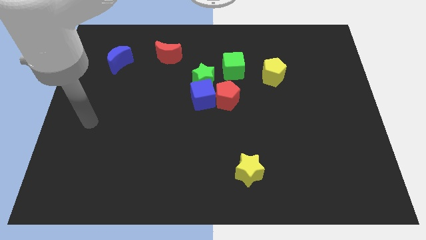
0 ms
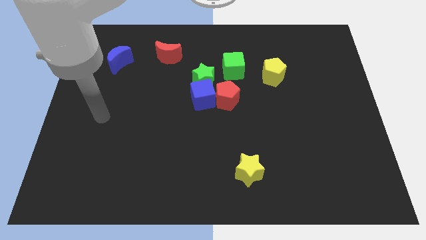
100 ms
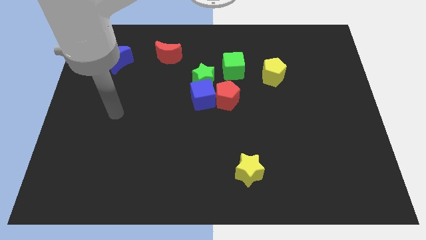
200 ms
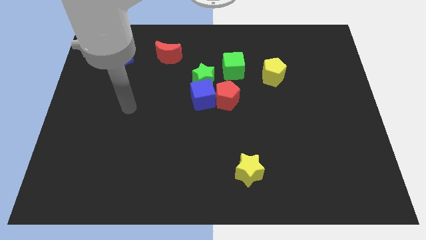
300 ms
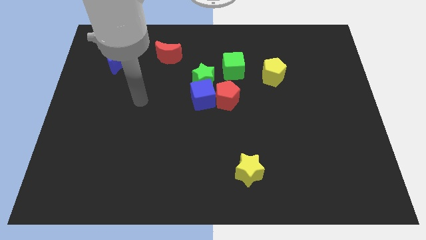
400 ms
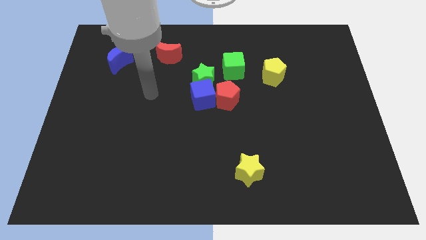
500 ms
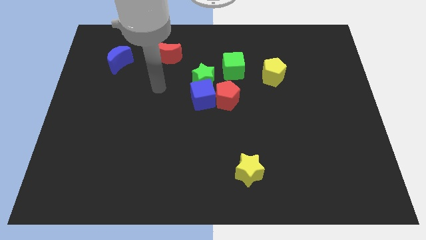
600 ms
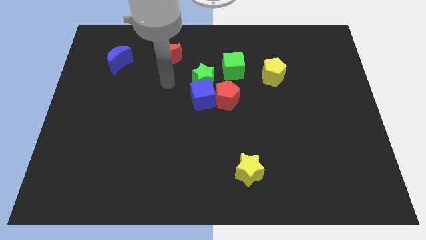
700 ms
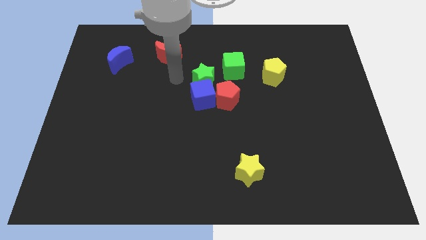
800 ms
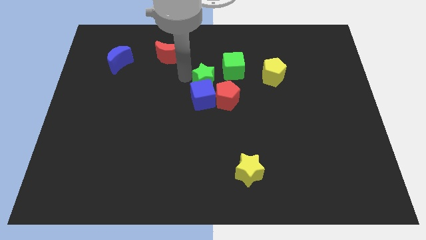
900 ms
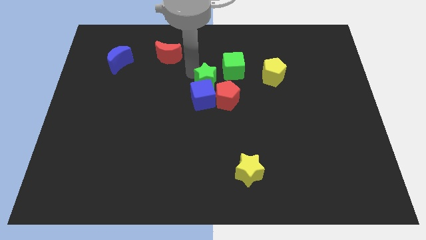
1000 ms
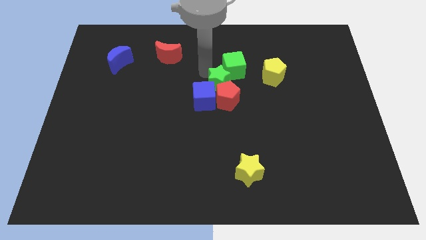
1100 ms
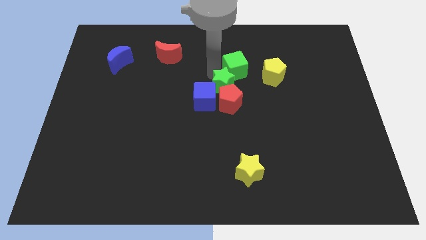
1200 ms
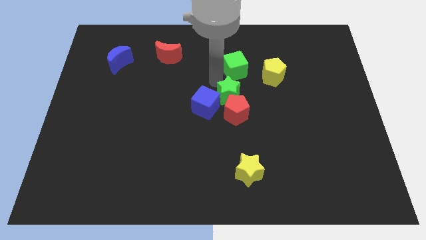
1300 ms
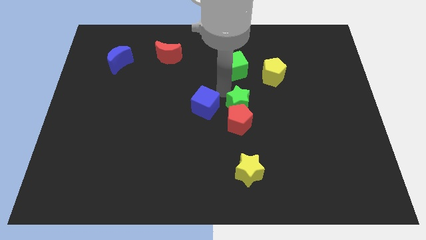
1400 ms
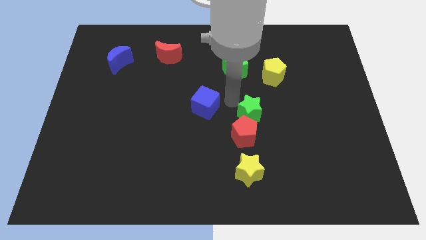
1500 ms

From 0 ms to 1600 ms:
move the blue cube away from the green star and red pentagon

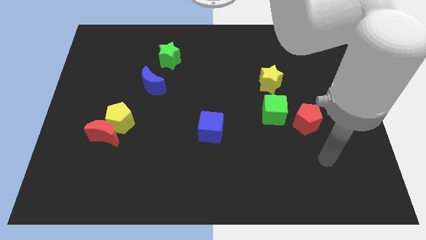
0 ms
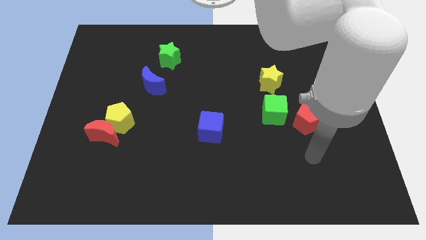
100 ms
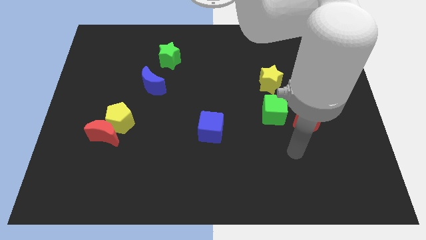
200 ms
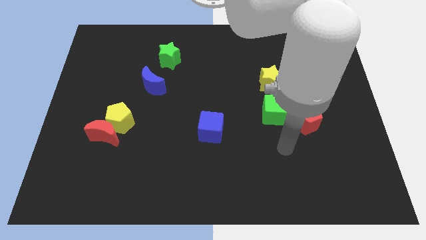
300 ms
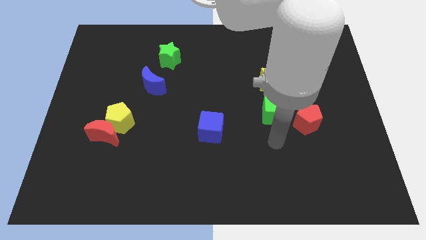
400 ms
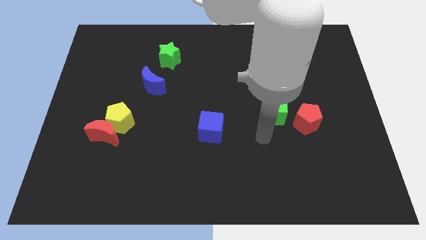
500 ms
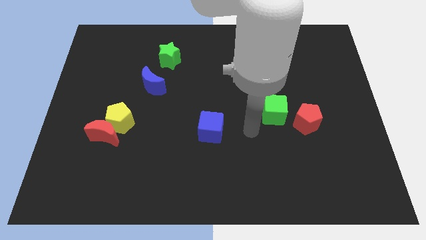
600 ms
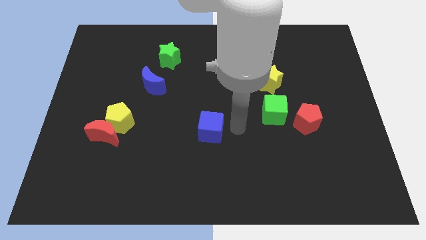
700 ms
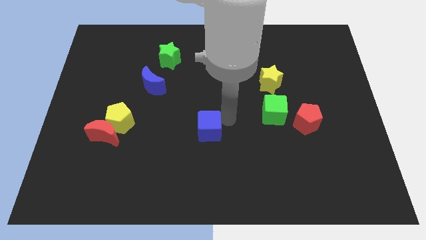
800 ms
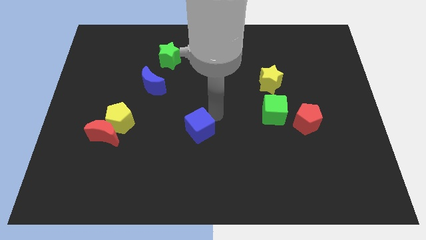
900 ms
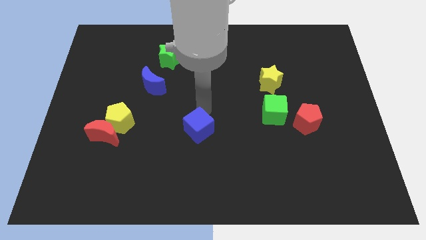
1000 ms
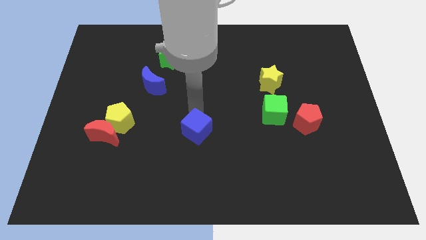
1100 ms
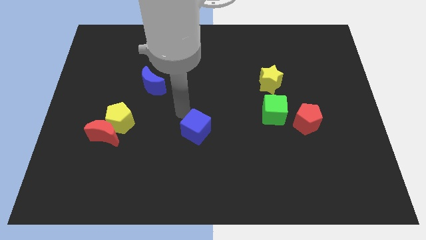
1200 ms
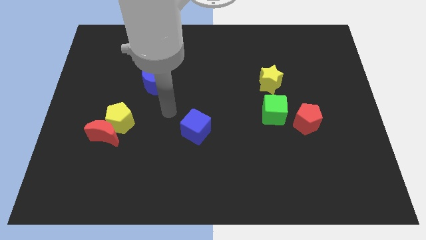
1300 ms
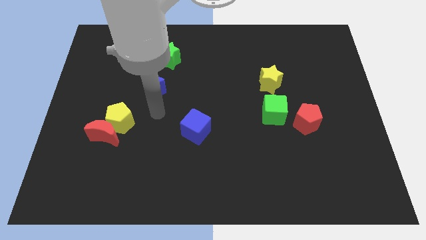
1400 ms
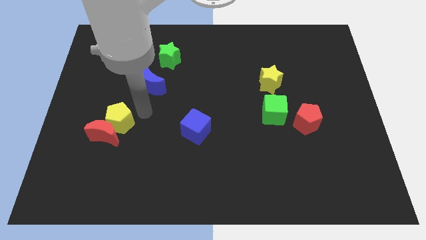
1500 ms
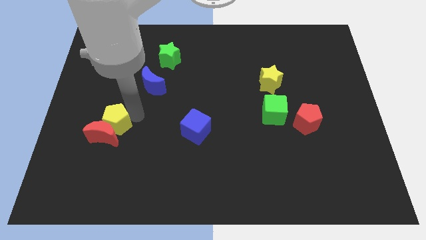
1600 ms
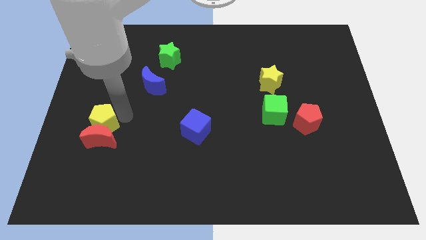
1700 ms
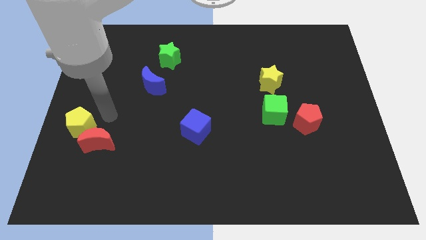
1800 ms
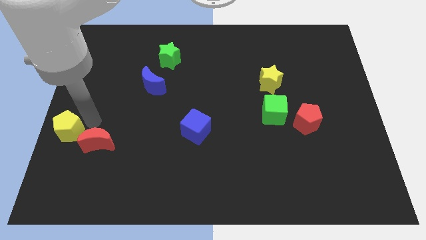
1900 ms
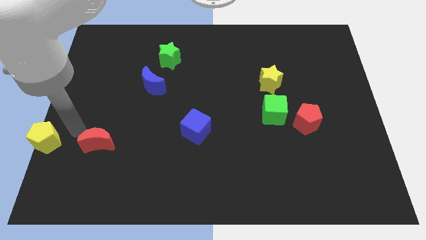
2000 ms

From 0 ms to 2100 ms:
pull the red moon apart from the yellow pentagon

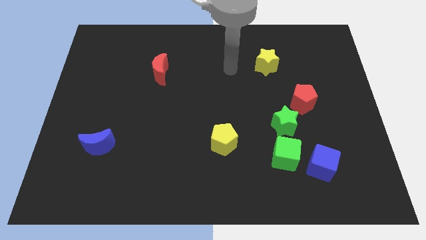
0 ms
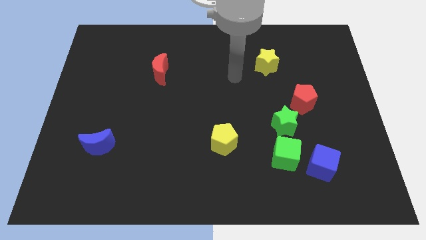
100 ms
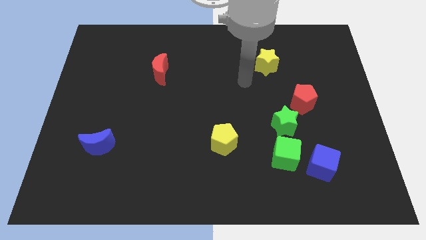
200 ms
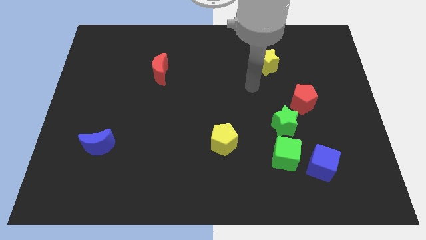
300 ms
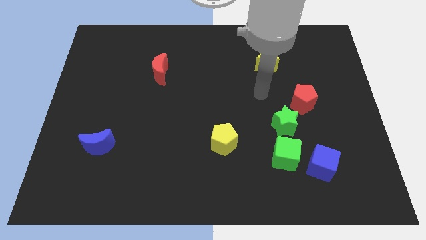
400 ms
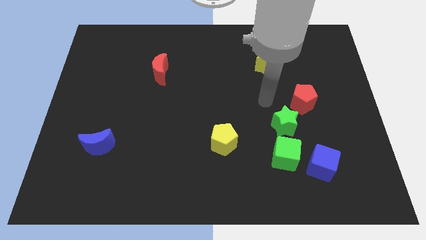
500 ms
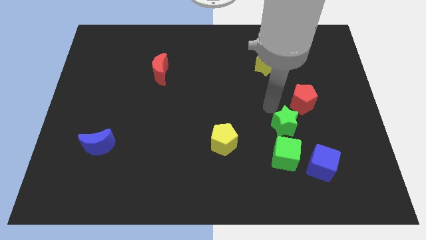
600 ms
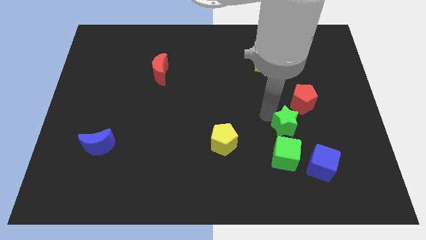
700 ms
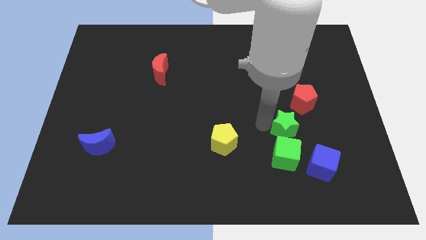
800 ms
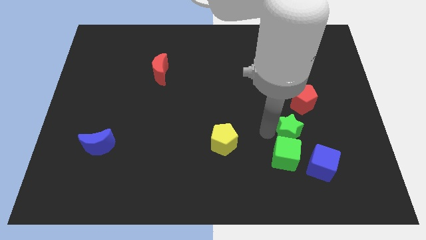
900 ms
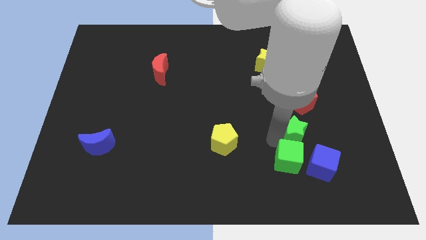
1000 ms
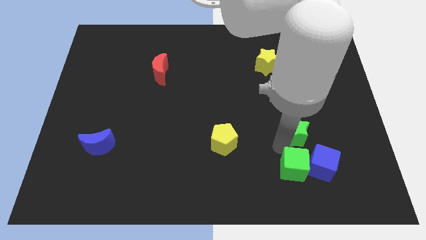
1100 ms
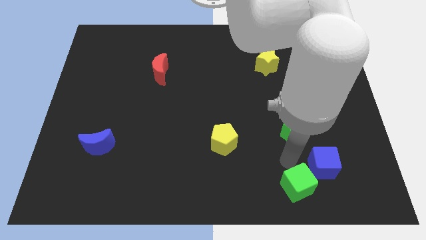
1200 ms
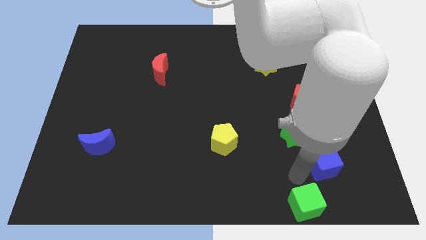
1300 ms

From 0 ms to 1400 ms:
pull the blue cube apart from the green cube

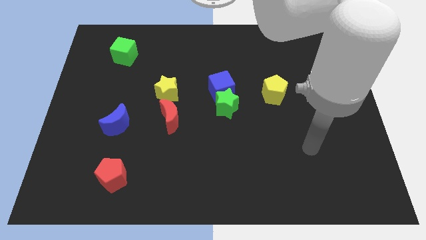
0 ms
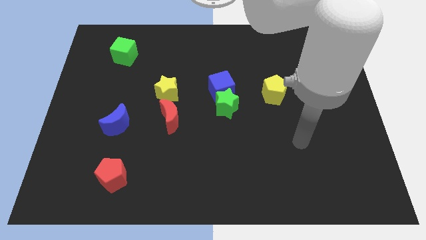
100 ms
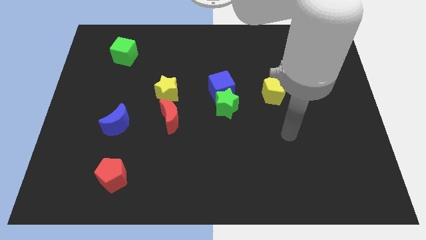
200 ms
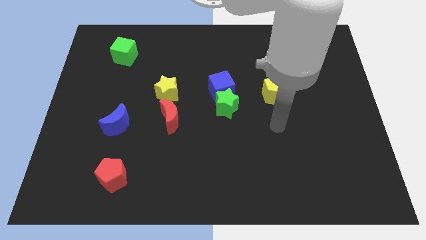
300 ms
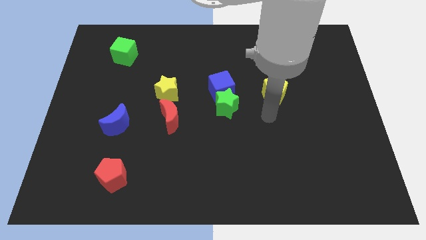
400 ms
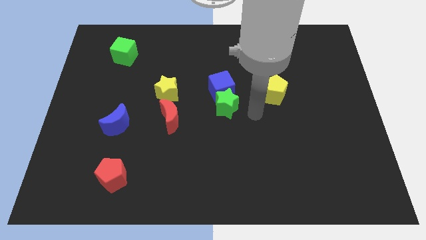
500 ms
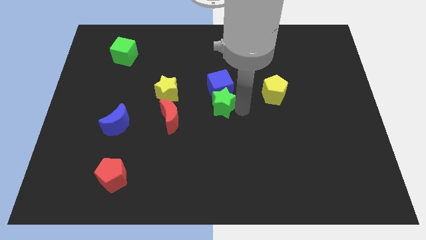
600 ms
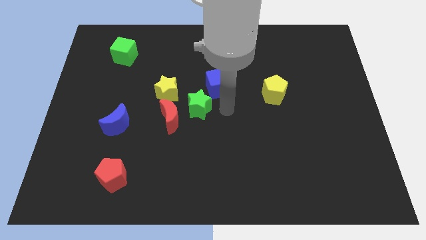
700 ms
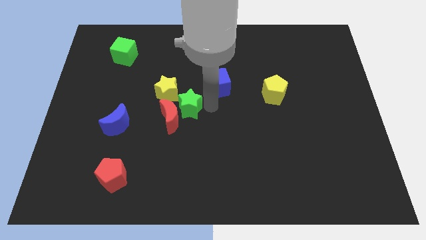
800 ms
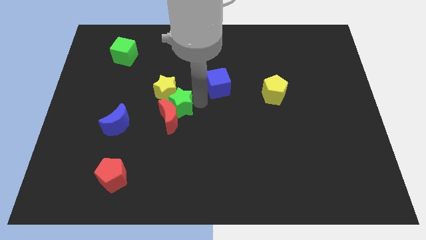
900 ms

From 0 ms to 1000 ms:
pull the blue cube apart from the green star

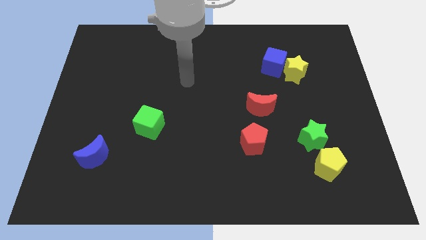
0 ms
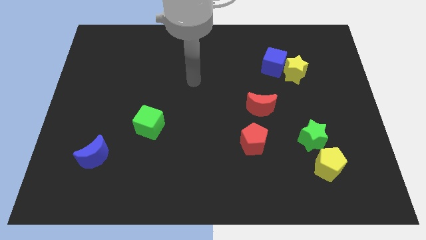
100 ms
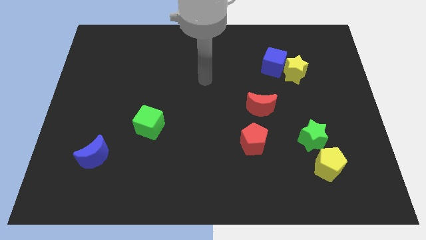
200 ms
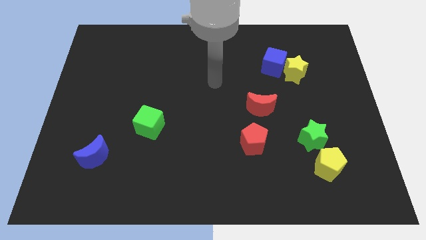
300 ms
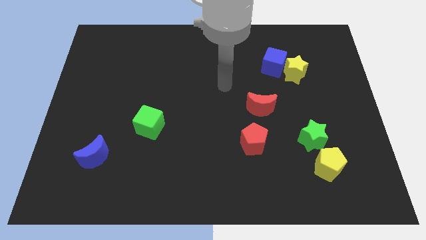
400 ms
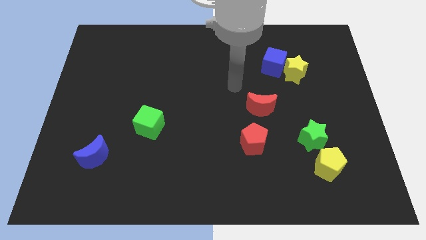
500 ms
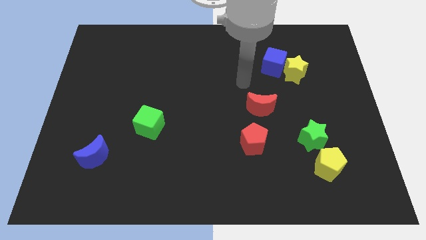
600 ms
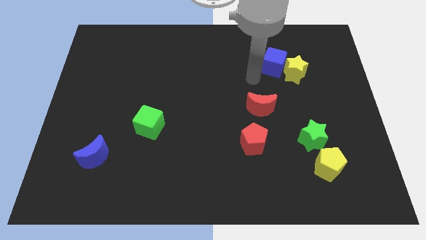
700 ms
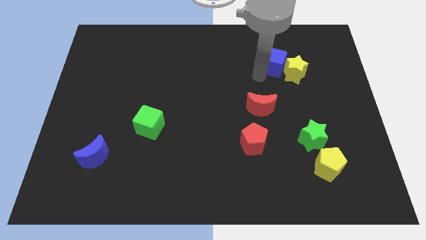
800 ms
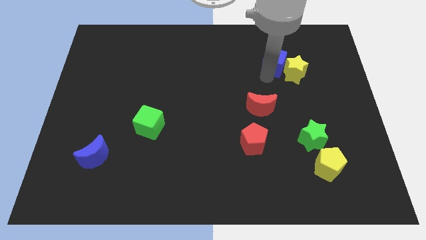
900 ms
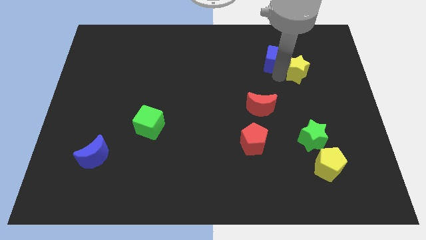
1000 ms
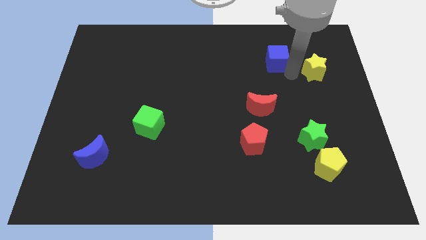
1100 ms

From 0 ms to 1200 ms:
move the blue cube away from the yellow star

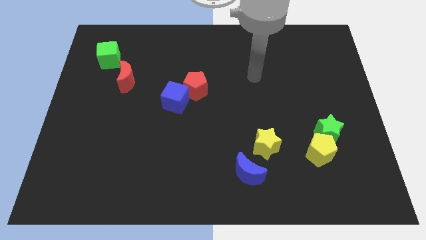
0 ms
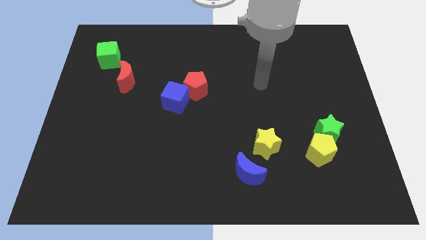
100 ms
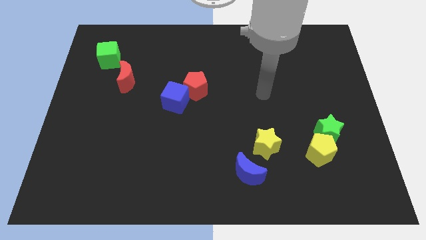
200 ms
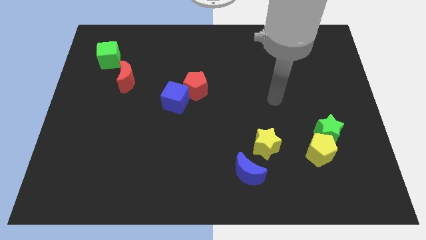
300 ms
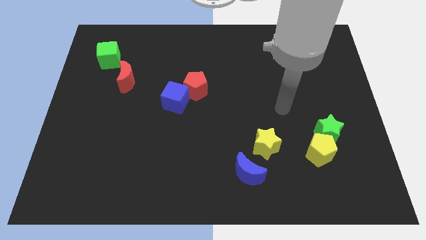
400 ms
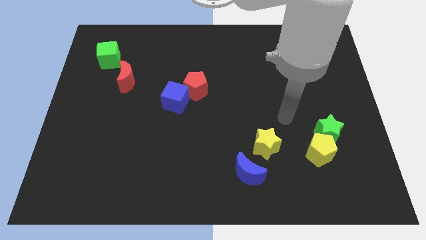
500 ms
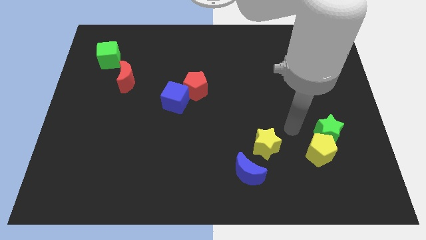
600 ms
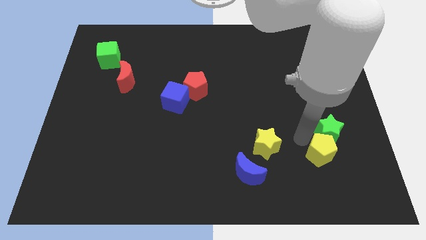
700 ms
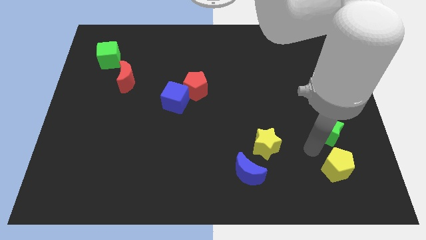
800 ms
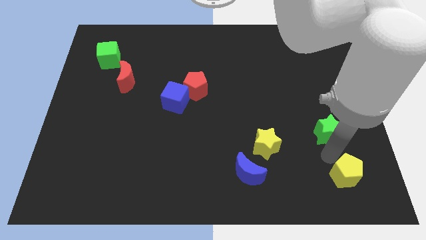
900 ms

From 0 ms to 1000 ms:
pull the green star apart from the yellow pentagon

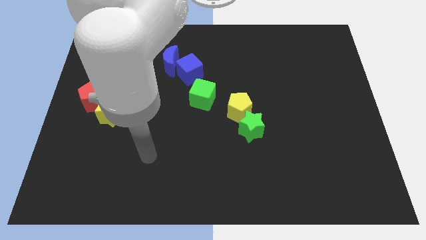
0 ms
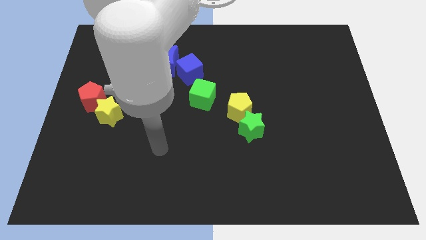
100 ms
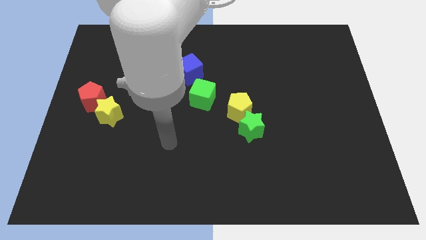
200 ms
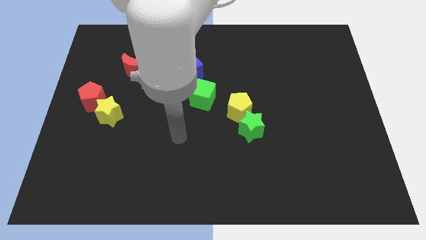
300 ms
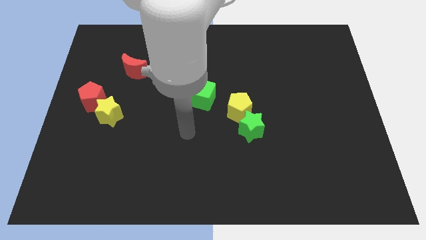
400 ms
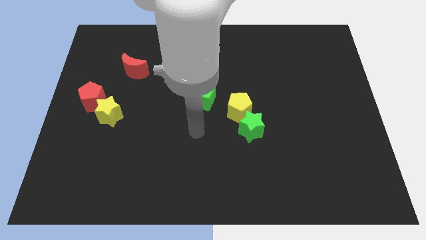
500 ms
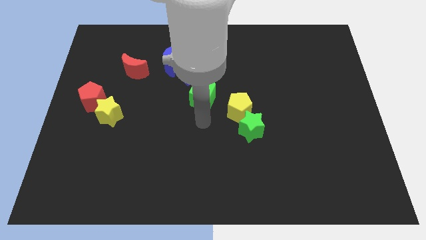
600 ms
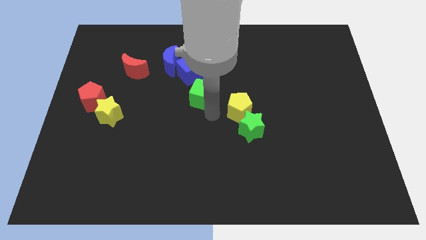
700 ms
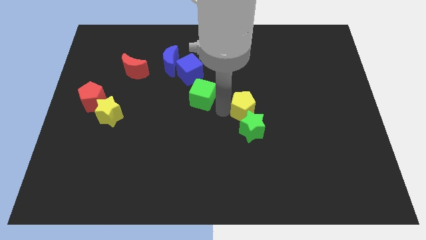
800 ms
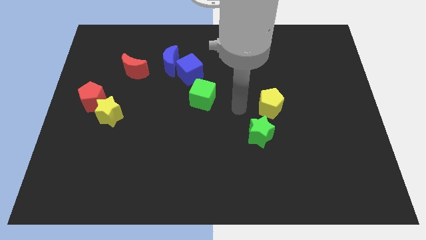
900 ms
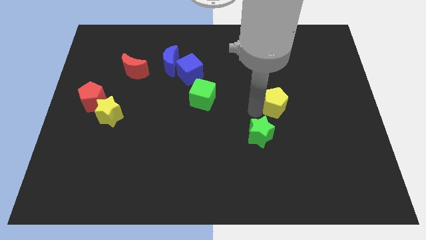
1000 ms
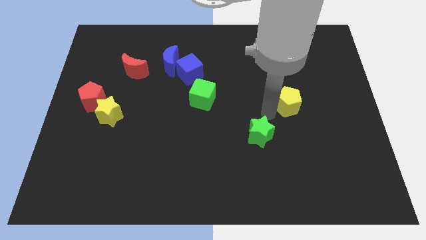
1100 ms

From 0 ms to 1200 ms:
move the green star away from the yellow pentagon
